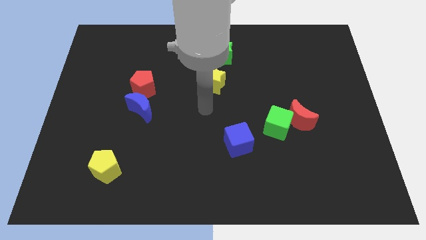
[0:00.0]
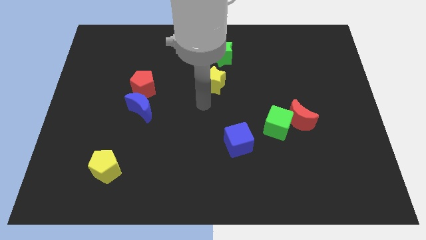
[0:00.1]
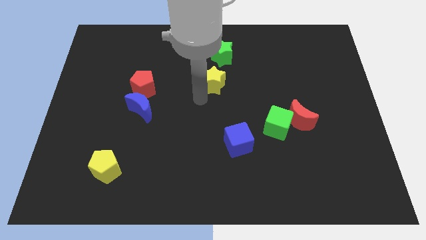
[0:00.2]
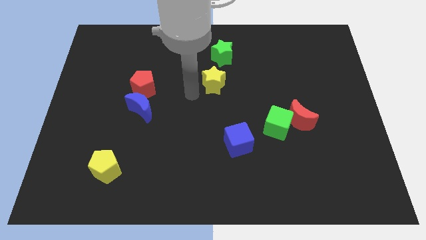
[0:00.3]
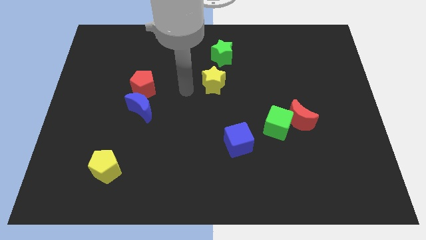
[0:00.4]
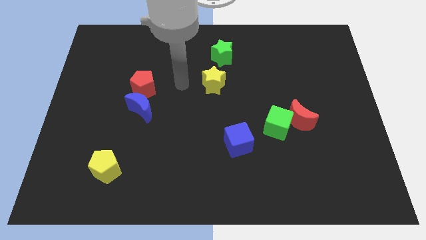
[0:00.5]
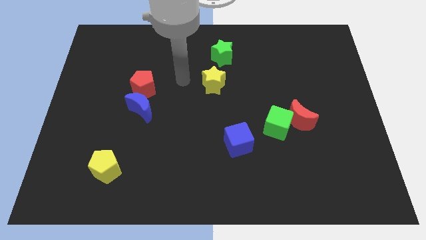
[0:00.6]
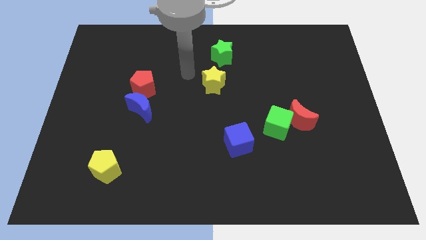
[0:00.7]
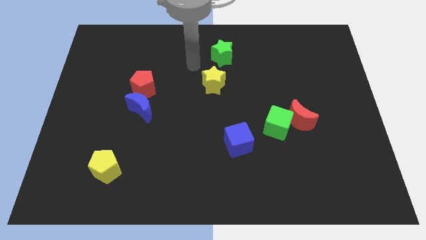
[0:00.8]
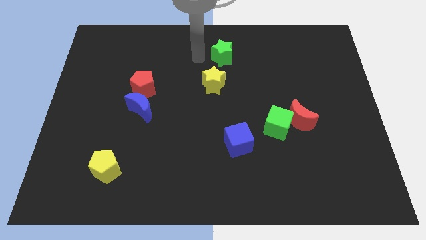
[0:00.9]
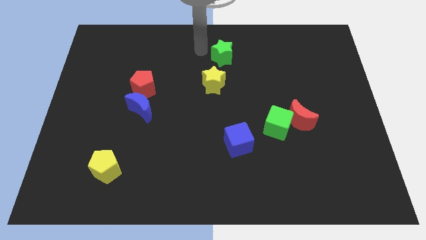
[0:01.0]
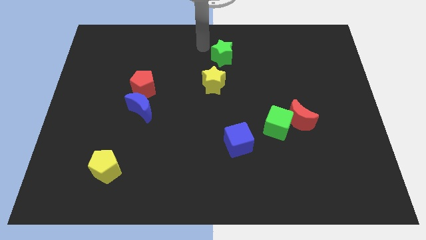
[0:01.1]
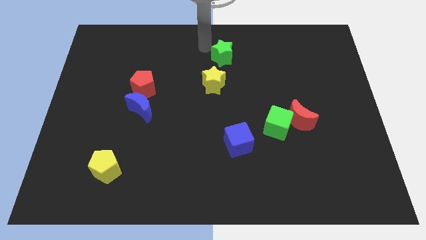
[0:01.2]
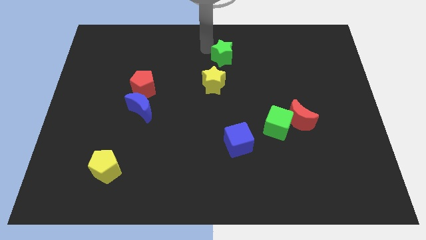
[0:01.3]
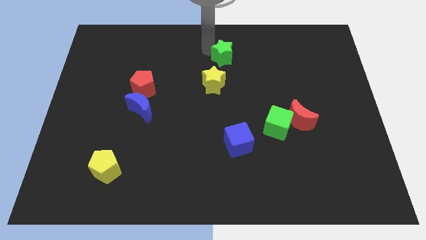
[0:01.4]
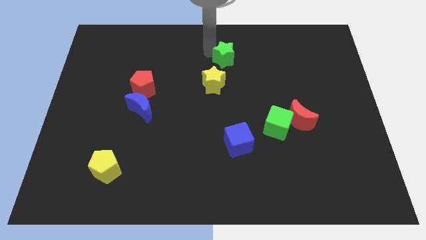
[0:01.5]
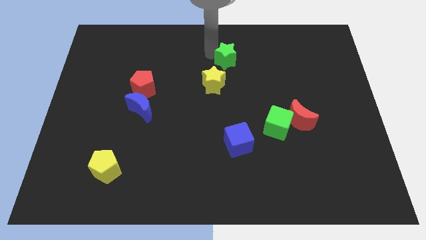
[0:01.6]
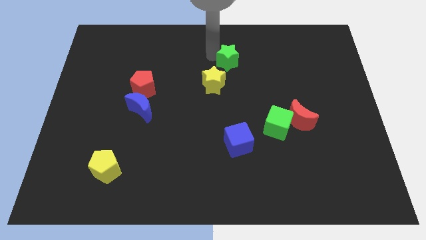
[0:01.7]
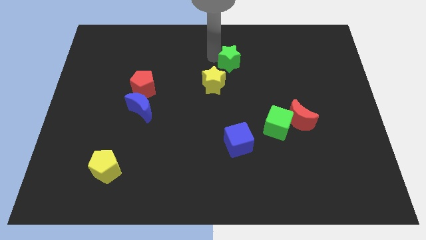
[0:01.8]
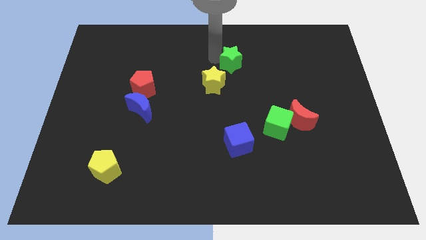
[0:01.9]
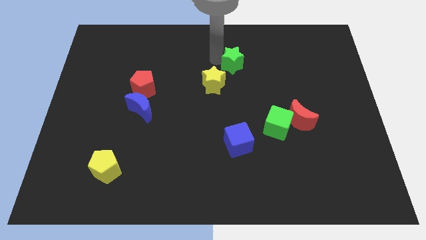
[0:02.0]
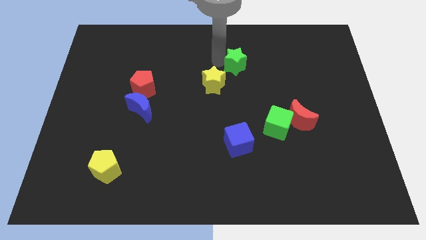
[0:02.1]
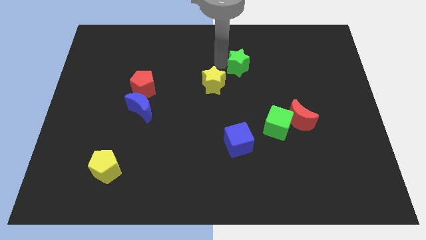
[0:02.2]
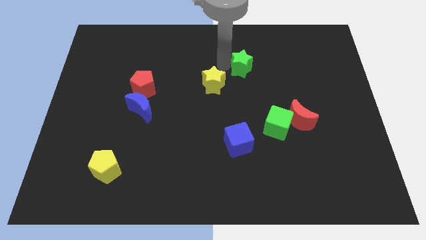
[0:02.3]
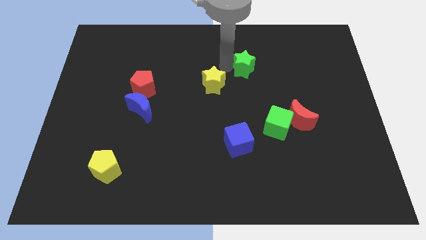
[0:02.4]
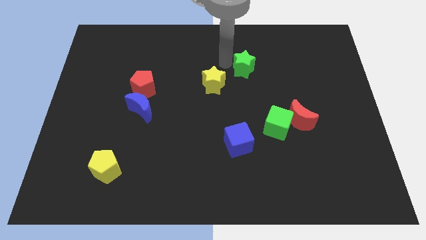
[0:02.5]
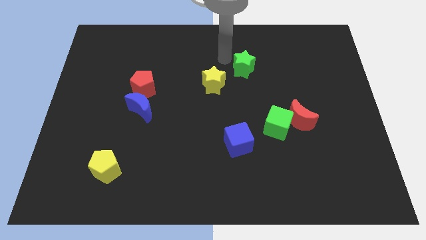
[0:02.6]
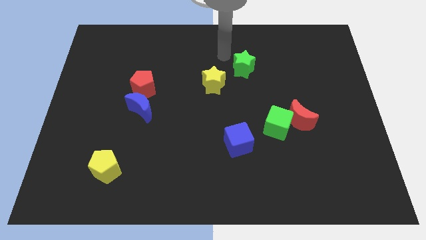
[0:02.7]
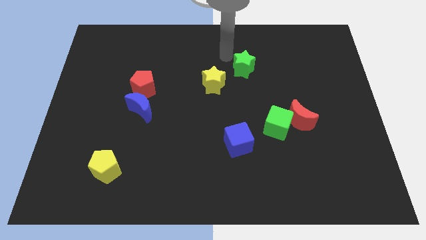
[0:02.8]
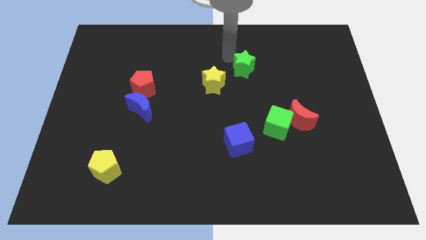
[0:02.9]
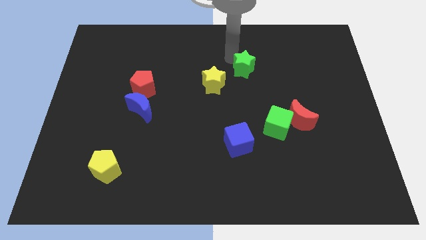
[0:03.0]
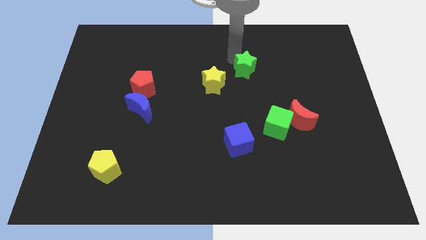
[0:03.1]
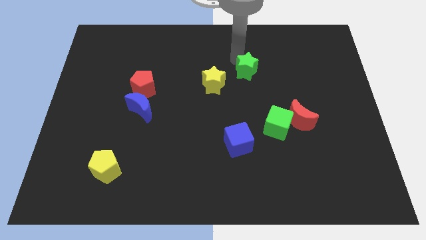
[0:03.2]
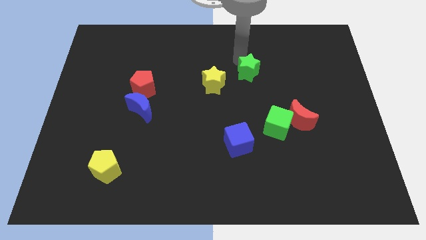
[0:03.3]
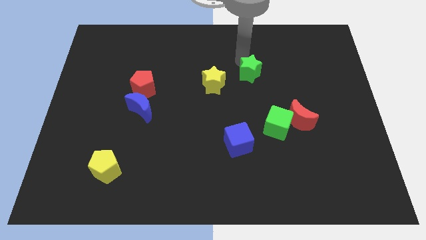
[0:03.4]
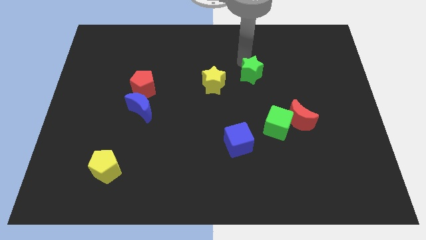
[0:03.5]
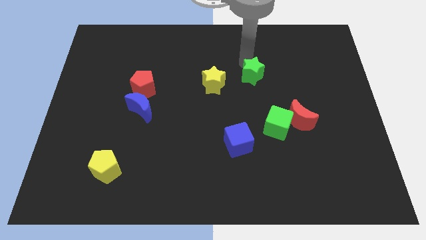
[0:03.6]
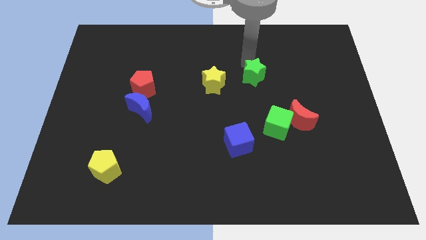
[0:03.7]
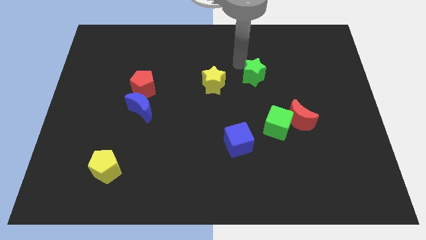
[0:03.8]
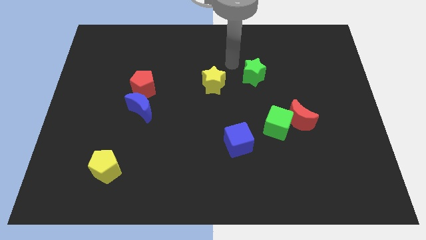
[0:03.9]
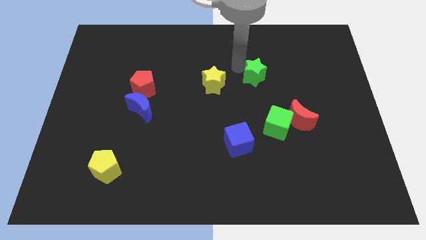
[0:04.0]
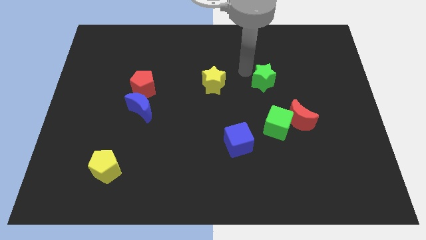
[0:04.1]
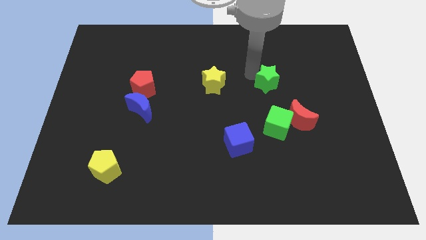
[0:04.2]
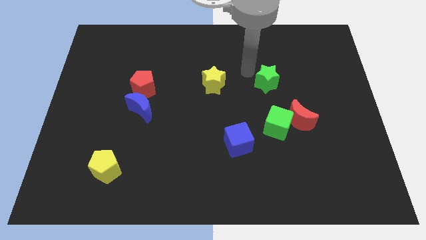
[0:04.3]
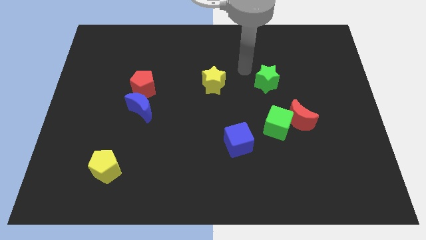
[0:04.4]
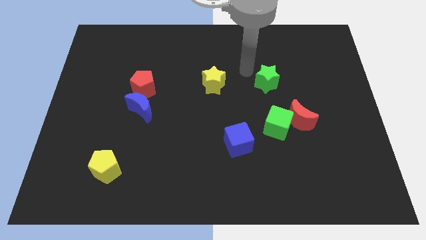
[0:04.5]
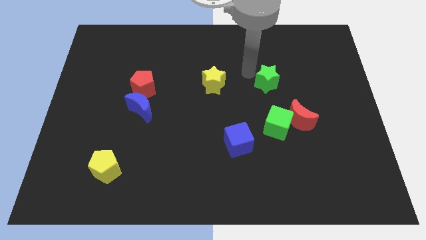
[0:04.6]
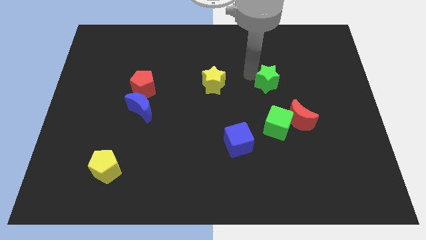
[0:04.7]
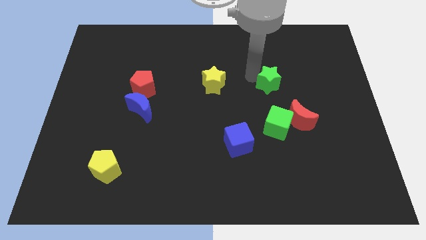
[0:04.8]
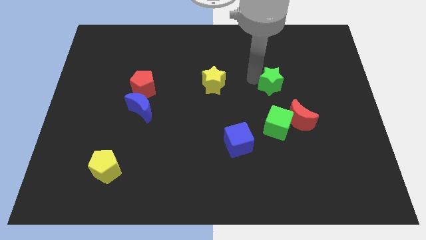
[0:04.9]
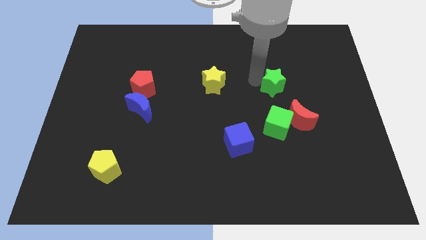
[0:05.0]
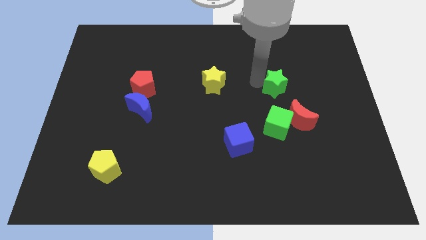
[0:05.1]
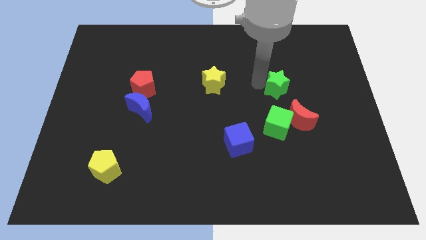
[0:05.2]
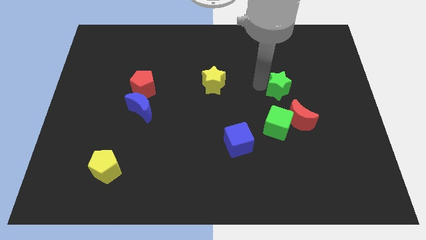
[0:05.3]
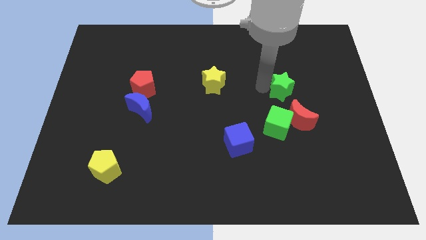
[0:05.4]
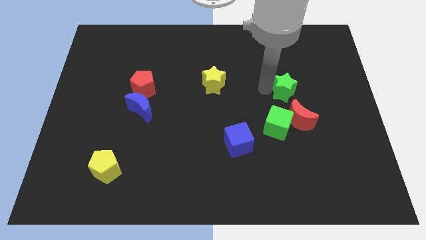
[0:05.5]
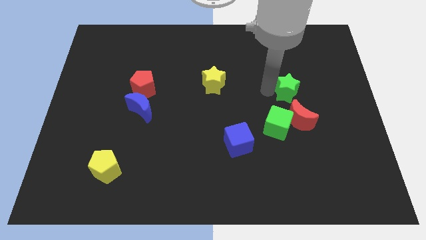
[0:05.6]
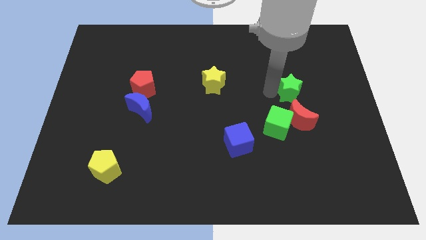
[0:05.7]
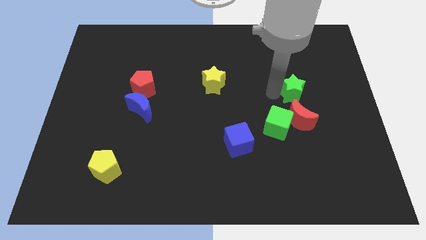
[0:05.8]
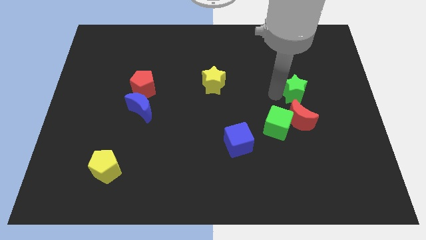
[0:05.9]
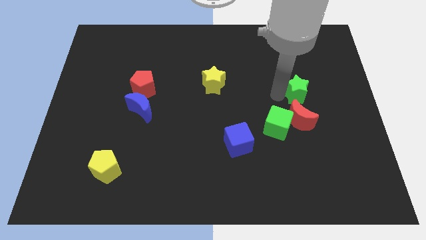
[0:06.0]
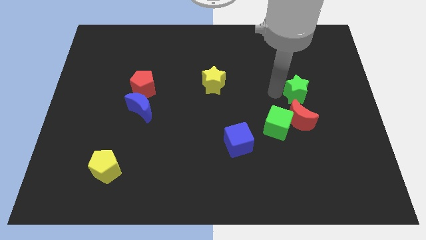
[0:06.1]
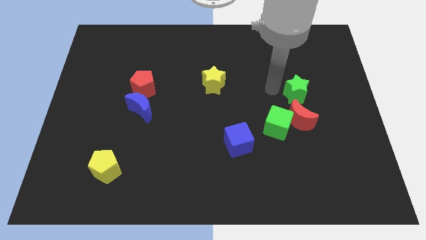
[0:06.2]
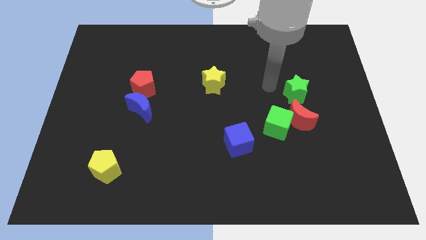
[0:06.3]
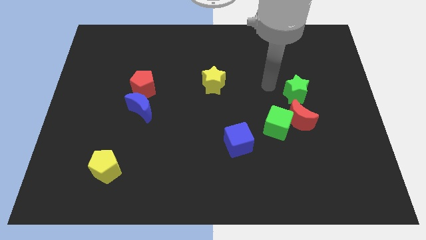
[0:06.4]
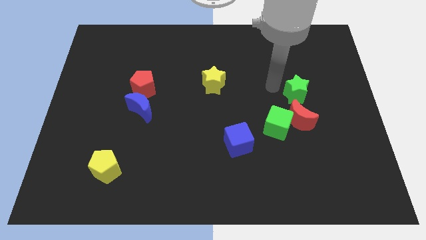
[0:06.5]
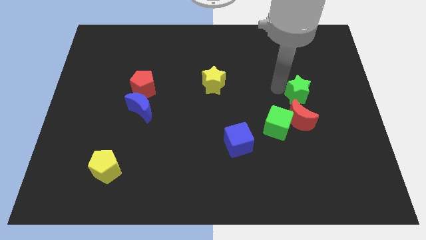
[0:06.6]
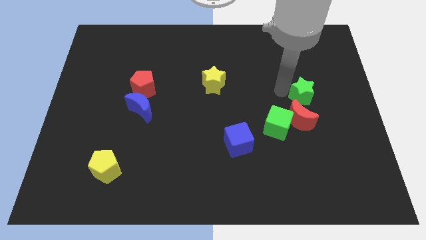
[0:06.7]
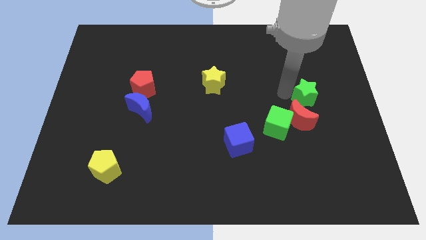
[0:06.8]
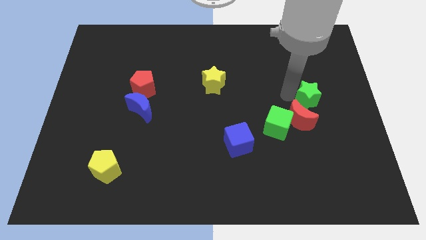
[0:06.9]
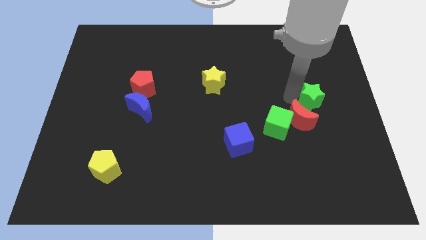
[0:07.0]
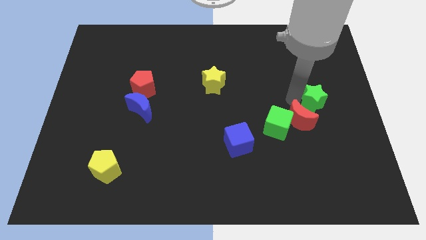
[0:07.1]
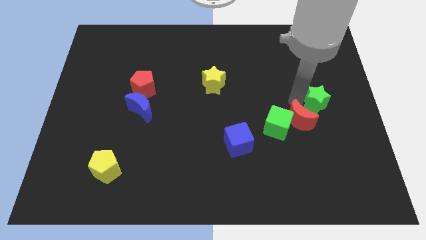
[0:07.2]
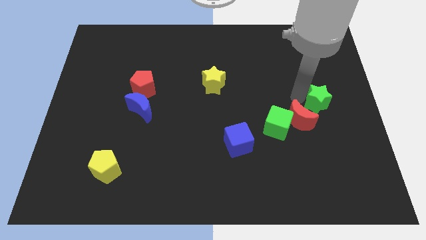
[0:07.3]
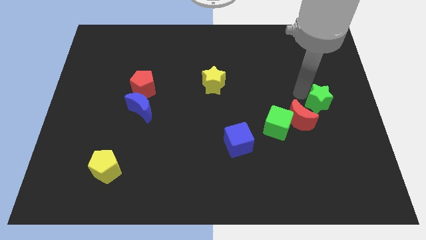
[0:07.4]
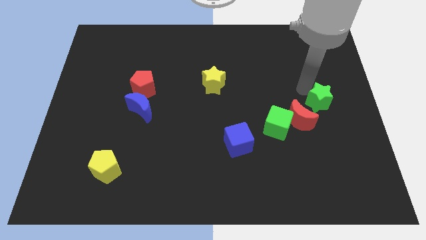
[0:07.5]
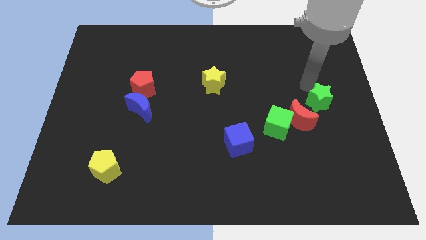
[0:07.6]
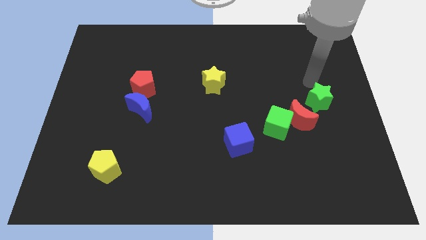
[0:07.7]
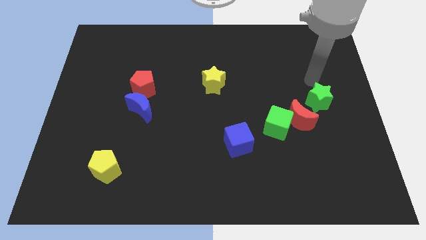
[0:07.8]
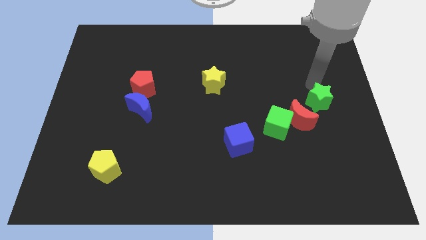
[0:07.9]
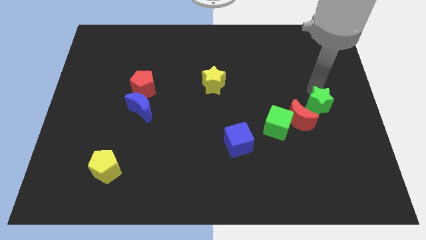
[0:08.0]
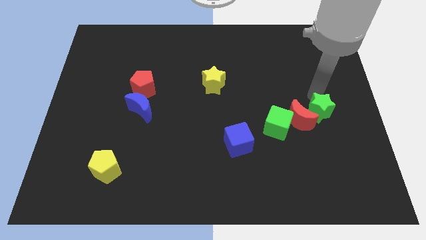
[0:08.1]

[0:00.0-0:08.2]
push the green star right of the green cube
